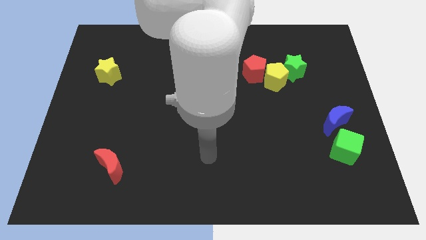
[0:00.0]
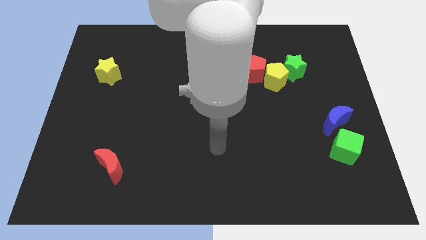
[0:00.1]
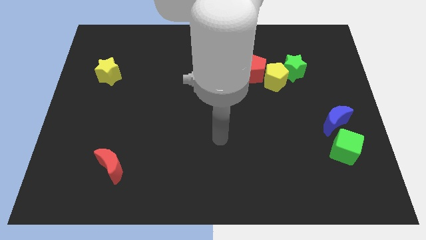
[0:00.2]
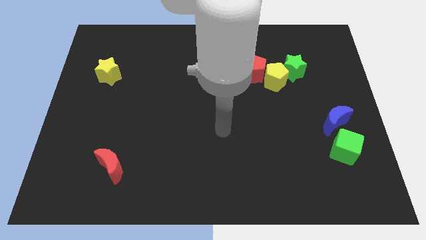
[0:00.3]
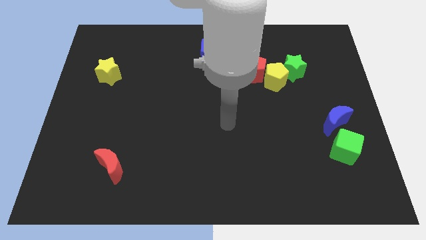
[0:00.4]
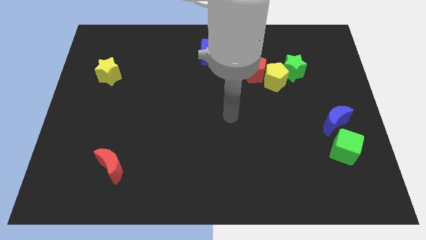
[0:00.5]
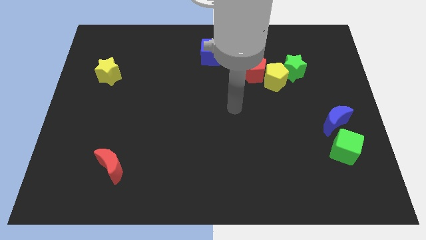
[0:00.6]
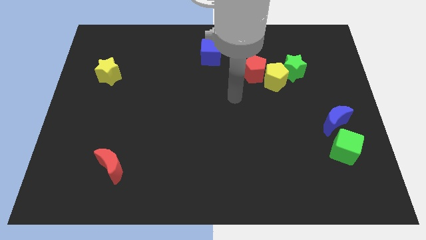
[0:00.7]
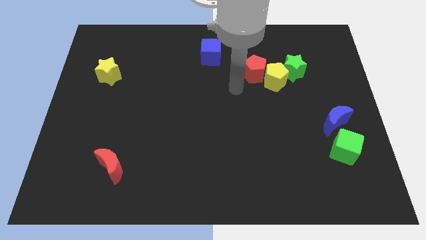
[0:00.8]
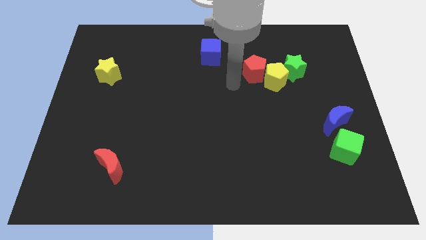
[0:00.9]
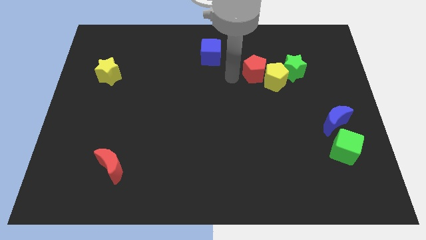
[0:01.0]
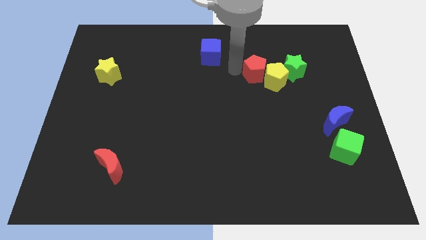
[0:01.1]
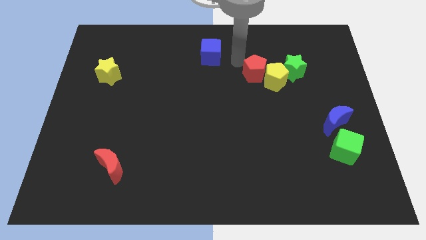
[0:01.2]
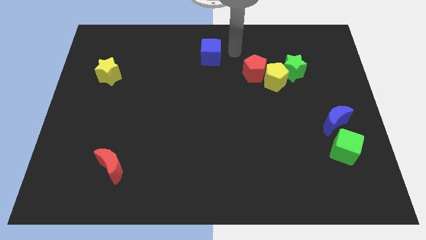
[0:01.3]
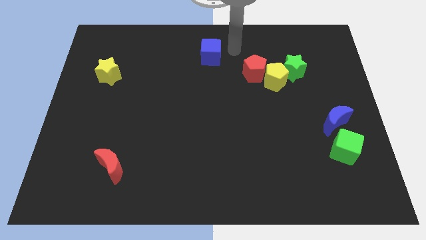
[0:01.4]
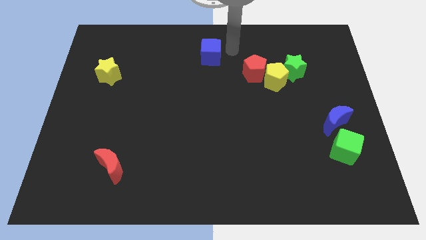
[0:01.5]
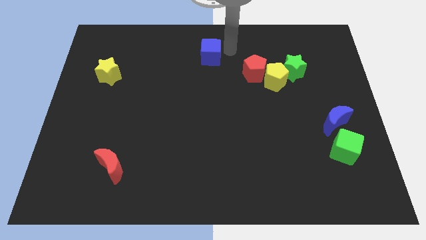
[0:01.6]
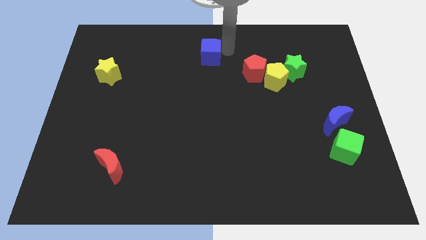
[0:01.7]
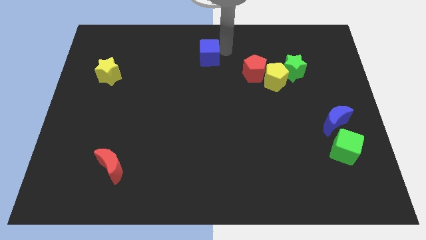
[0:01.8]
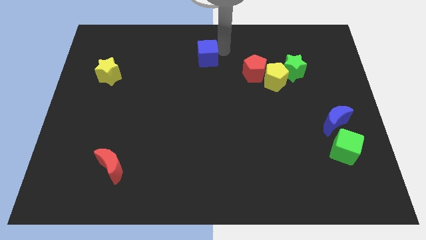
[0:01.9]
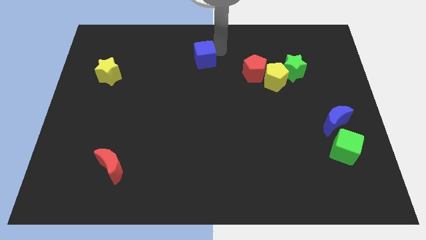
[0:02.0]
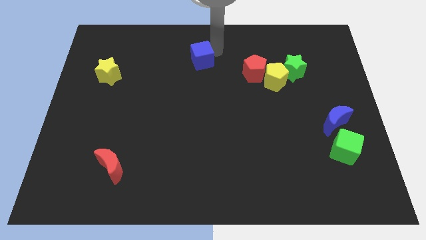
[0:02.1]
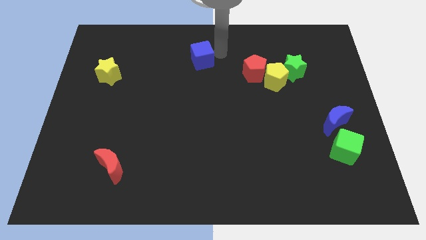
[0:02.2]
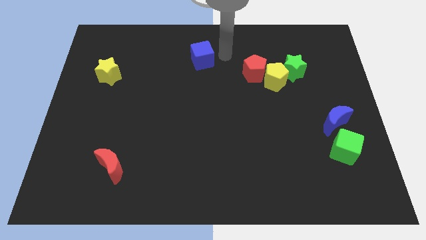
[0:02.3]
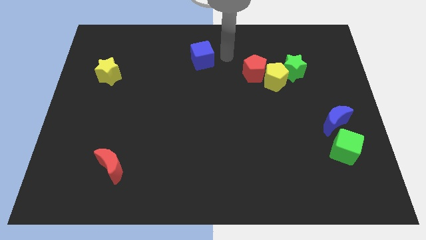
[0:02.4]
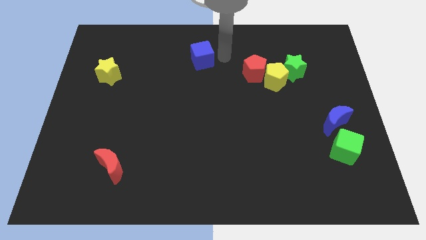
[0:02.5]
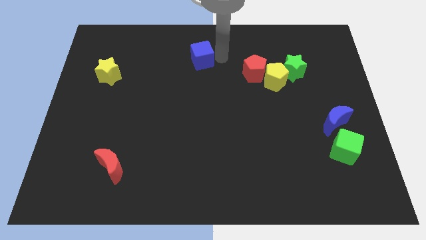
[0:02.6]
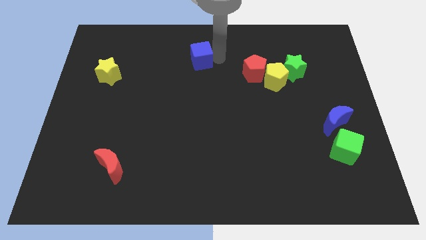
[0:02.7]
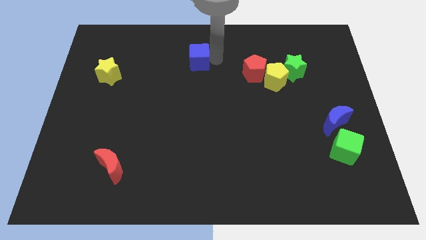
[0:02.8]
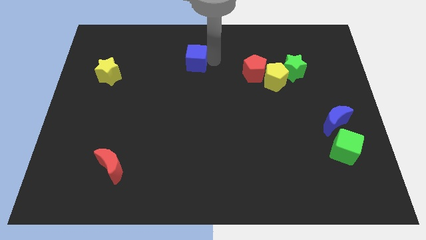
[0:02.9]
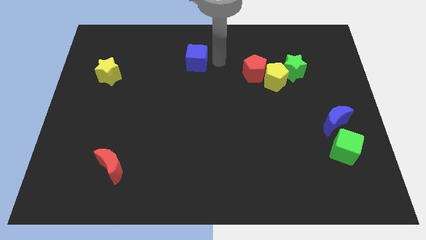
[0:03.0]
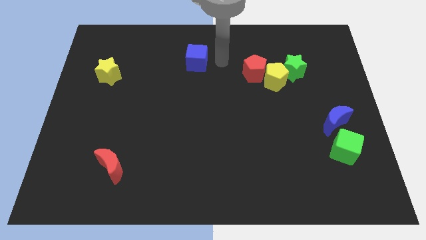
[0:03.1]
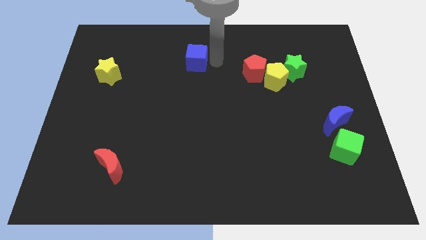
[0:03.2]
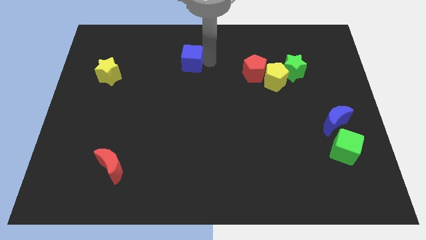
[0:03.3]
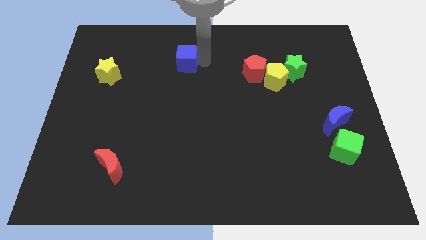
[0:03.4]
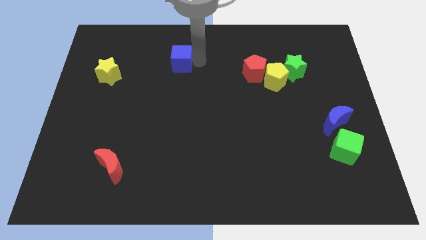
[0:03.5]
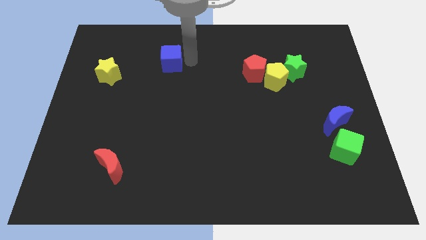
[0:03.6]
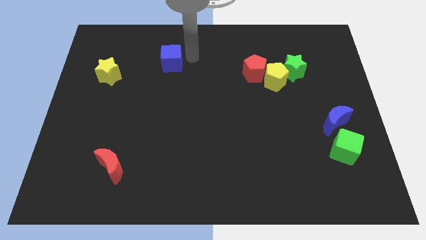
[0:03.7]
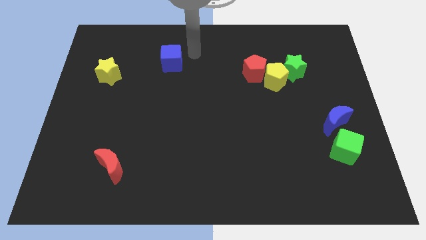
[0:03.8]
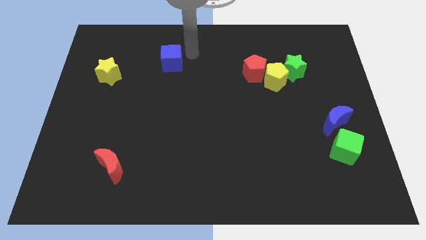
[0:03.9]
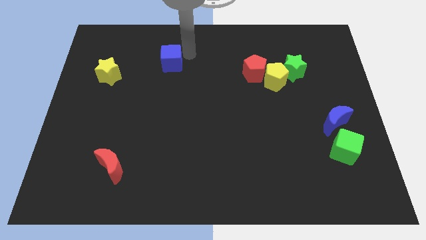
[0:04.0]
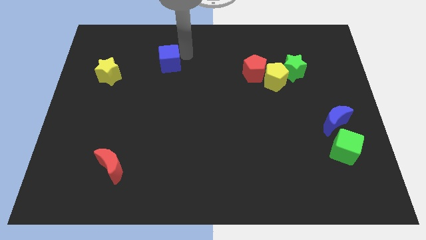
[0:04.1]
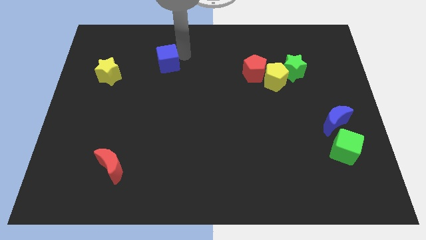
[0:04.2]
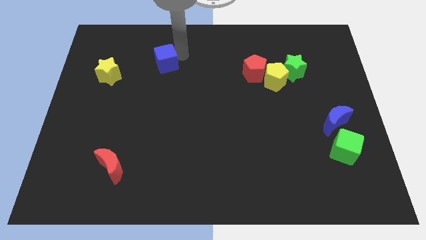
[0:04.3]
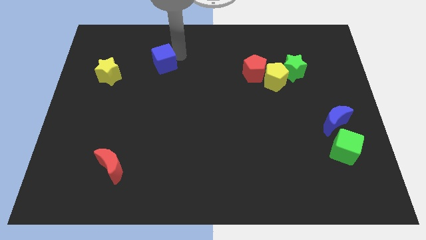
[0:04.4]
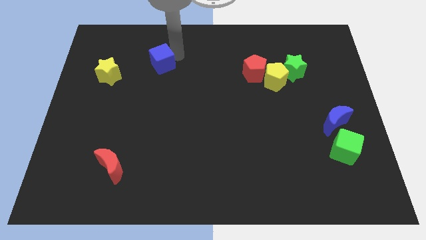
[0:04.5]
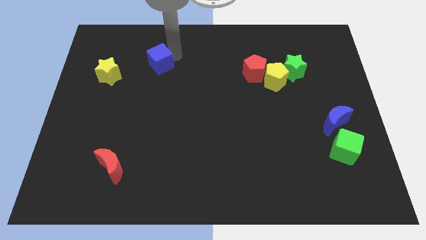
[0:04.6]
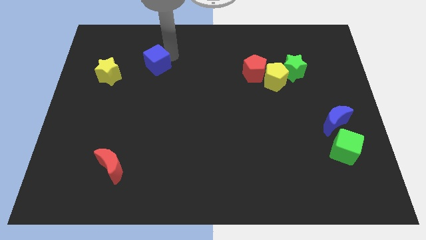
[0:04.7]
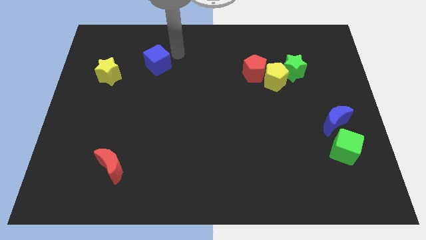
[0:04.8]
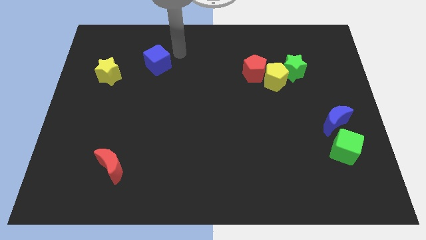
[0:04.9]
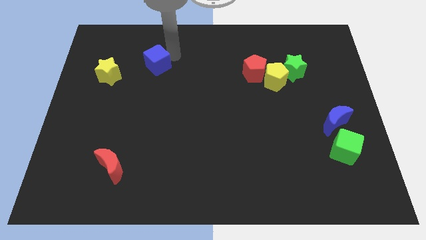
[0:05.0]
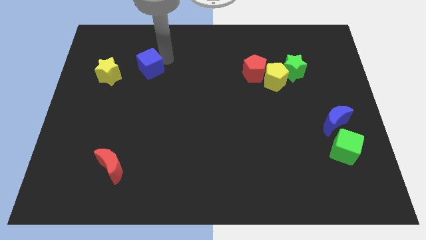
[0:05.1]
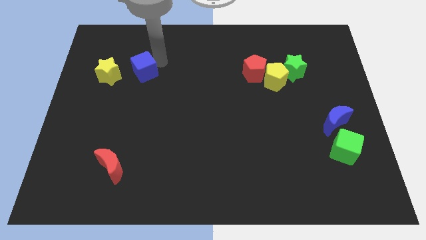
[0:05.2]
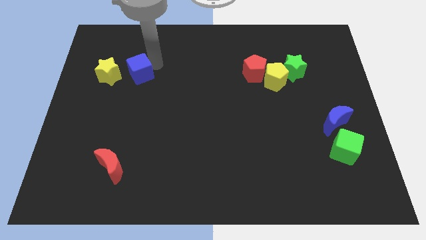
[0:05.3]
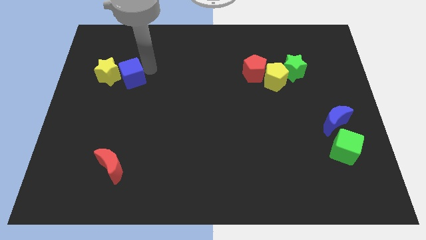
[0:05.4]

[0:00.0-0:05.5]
put the blue cube close to the yellow star

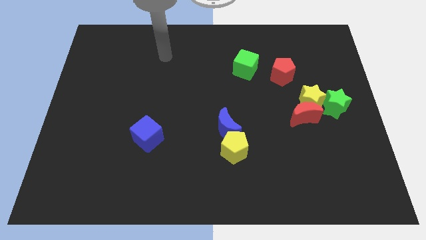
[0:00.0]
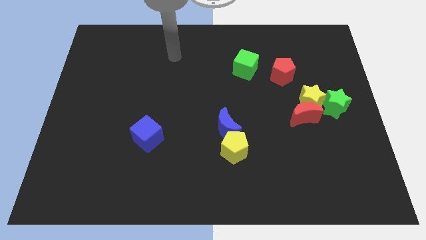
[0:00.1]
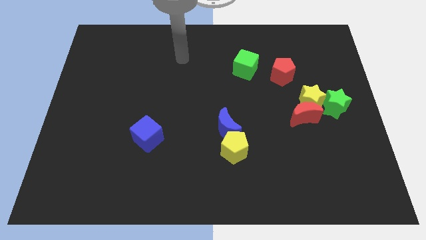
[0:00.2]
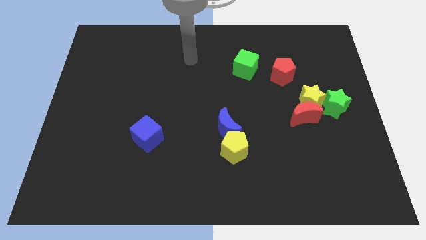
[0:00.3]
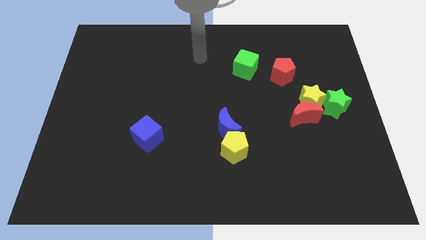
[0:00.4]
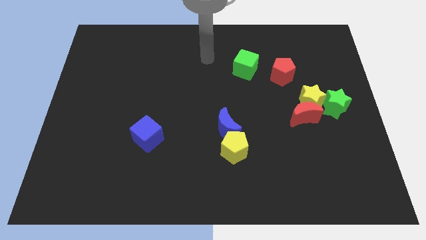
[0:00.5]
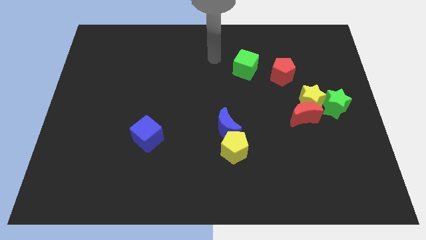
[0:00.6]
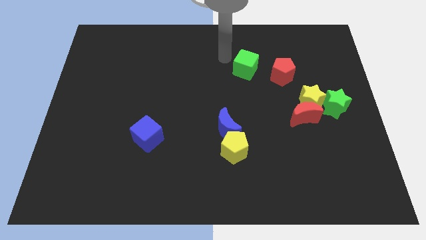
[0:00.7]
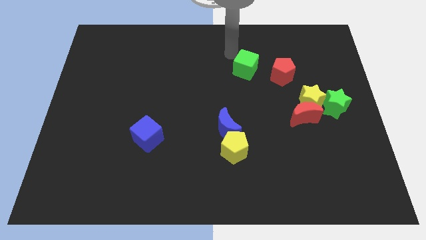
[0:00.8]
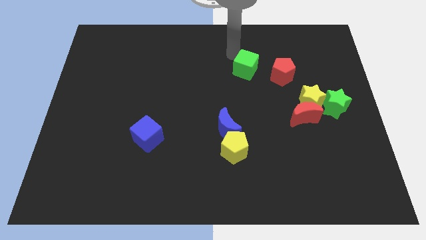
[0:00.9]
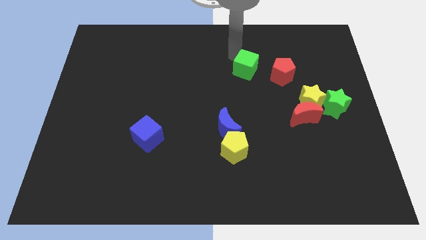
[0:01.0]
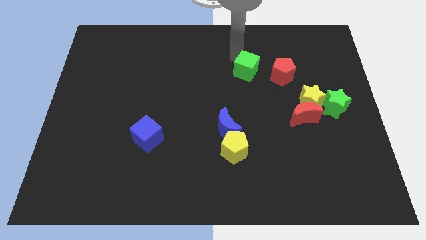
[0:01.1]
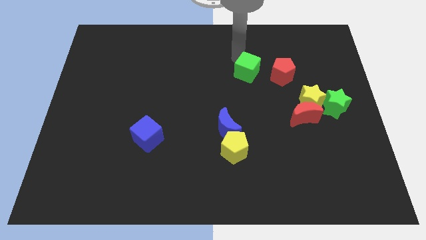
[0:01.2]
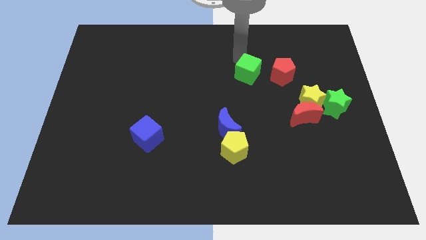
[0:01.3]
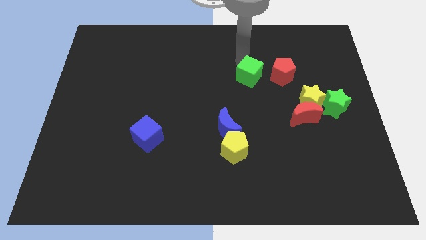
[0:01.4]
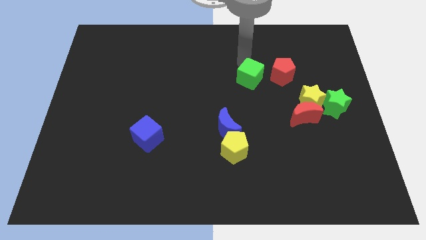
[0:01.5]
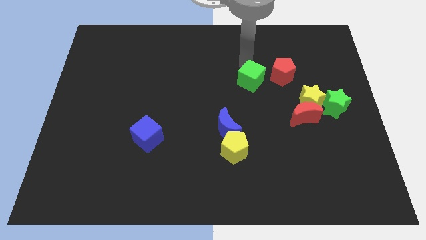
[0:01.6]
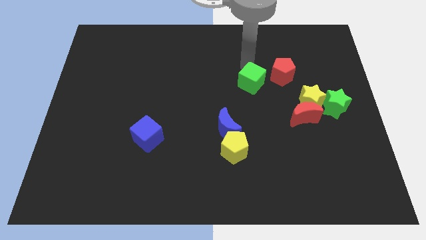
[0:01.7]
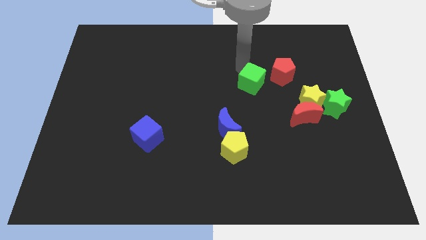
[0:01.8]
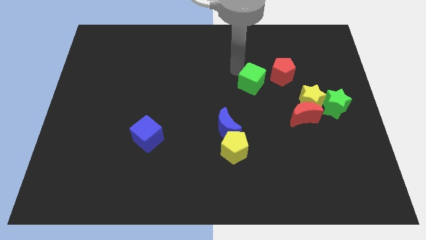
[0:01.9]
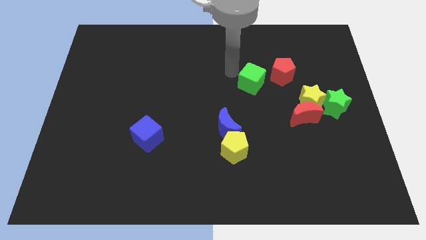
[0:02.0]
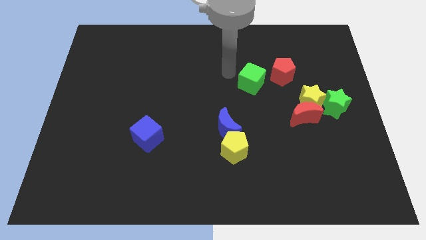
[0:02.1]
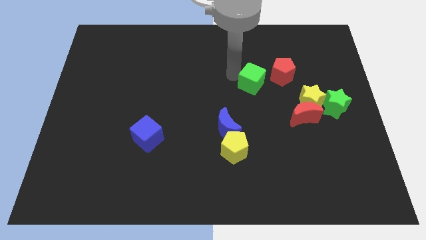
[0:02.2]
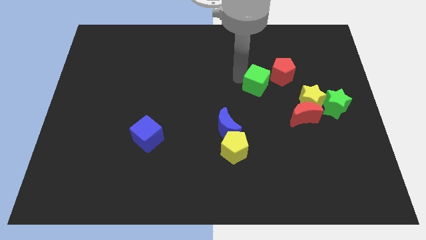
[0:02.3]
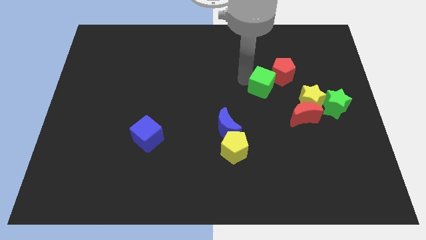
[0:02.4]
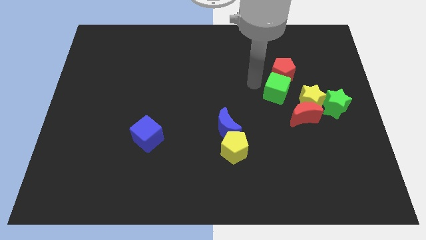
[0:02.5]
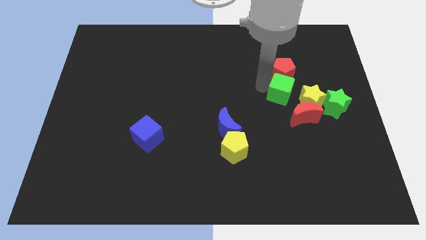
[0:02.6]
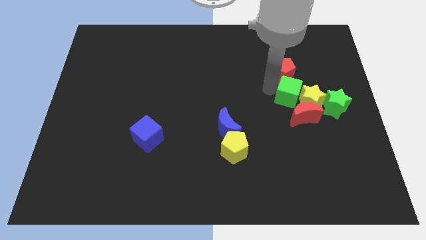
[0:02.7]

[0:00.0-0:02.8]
slide the green cube towards the yellow star
